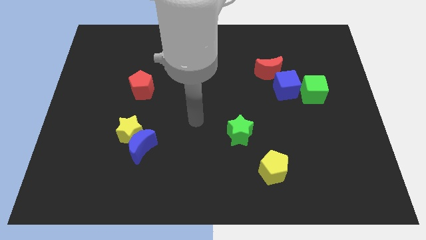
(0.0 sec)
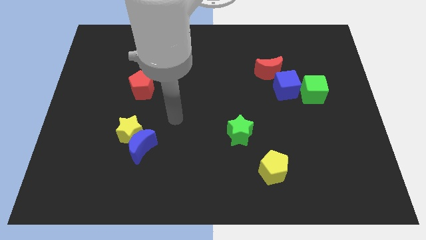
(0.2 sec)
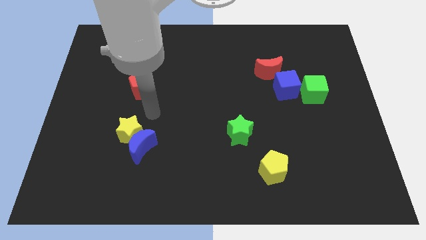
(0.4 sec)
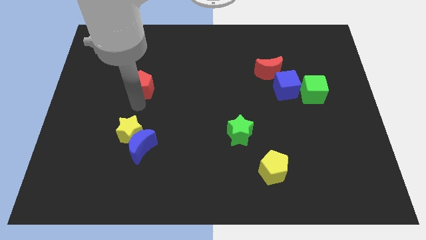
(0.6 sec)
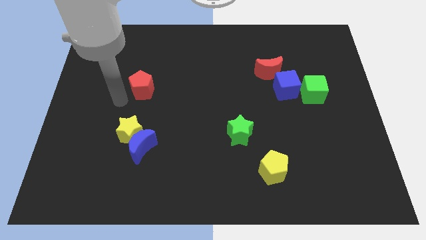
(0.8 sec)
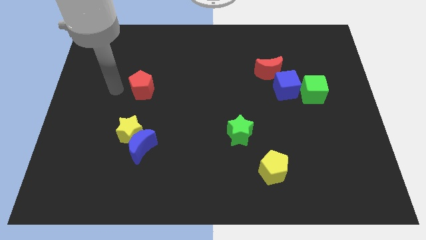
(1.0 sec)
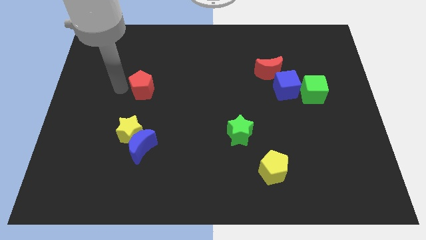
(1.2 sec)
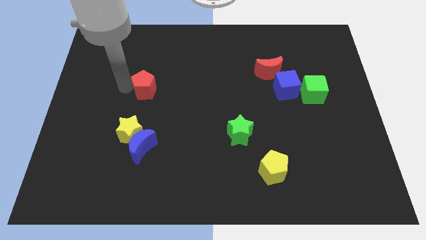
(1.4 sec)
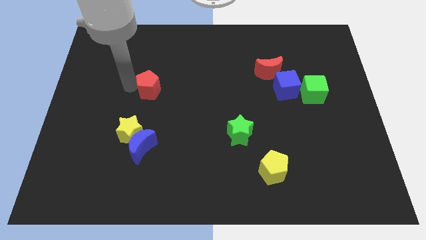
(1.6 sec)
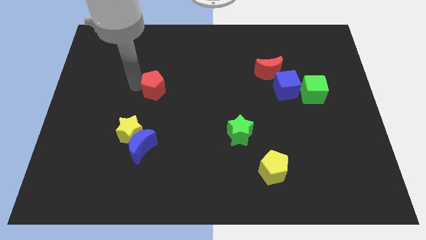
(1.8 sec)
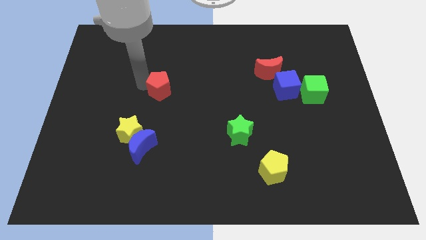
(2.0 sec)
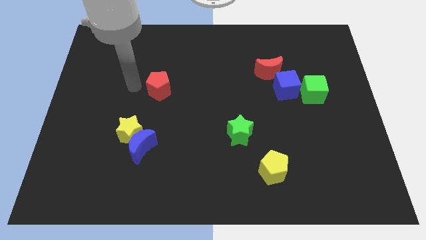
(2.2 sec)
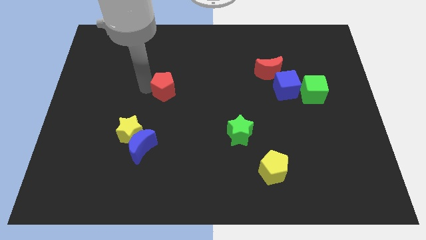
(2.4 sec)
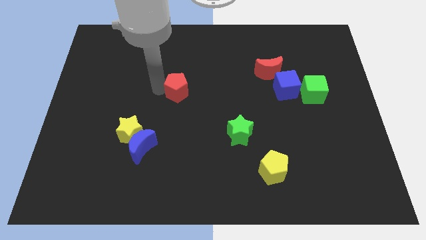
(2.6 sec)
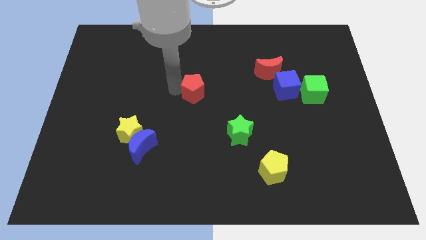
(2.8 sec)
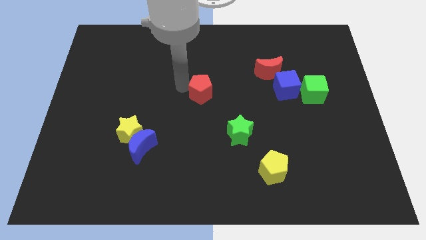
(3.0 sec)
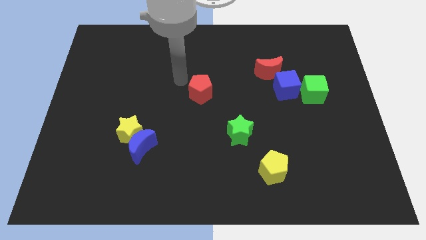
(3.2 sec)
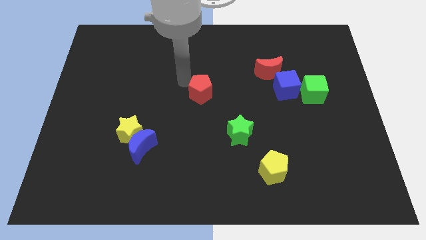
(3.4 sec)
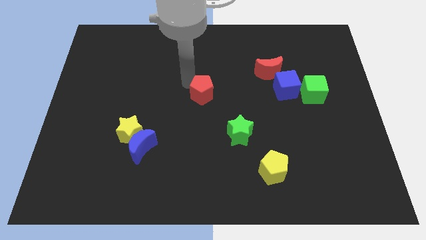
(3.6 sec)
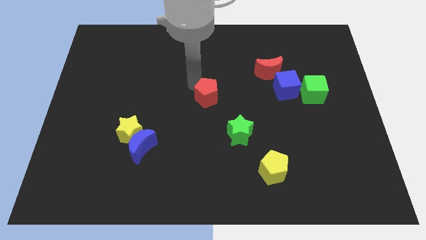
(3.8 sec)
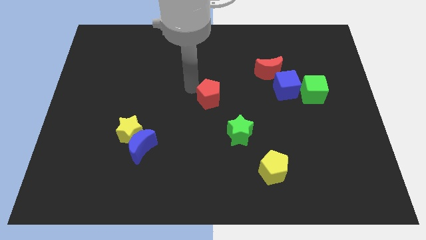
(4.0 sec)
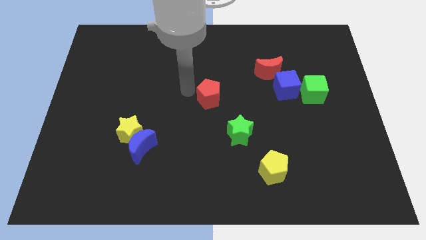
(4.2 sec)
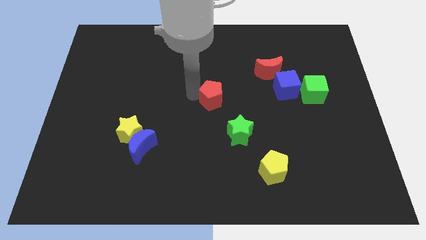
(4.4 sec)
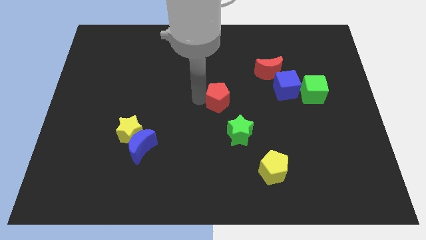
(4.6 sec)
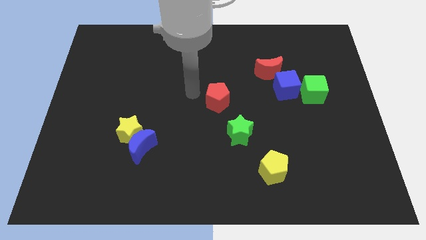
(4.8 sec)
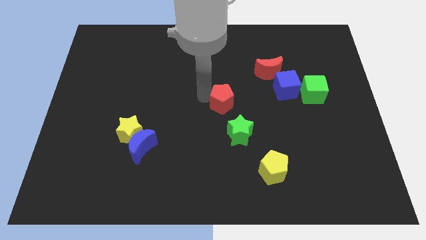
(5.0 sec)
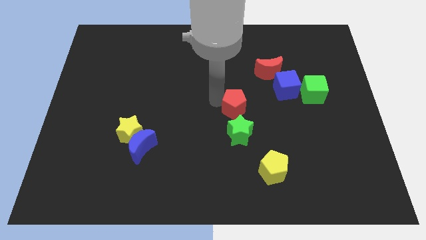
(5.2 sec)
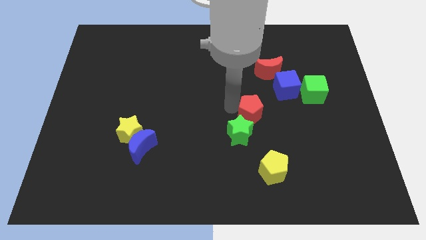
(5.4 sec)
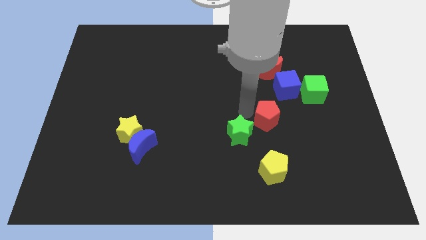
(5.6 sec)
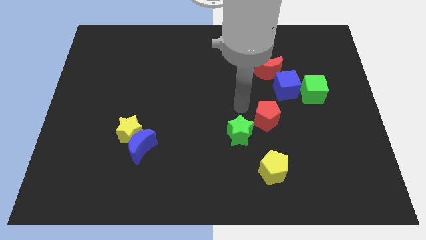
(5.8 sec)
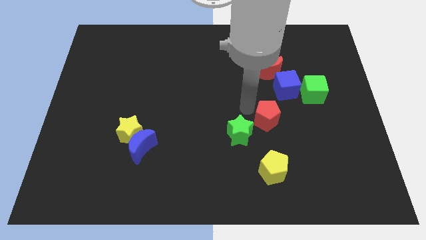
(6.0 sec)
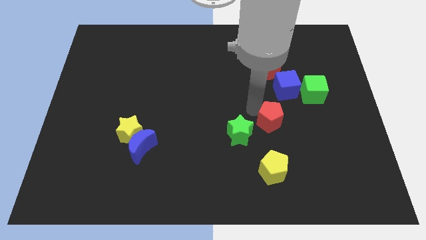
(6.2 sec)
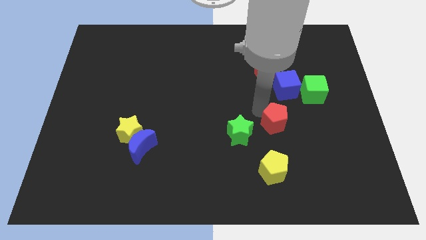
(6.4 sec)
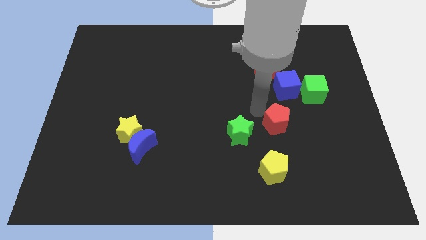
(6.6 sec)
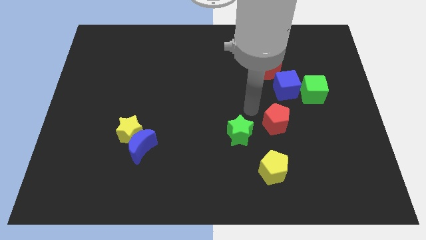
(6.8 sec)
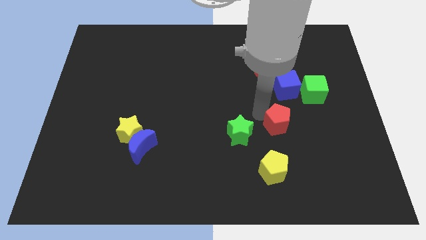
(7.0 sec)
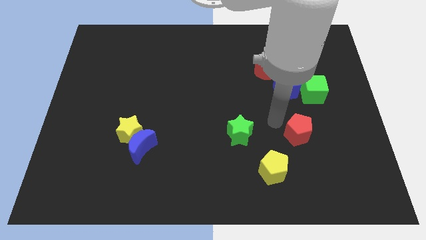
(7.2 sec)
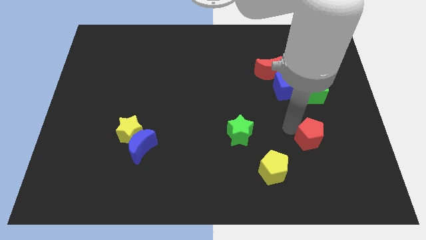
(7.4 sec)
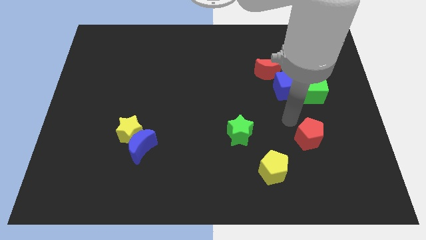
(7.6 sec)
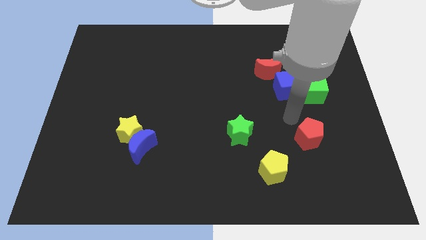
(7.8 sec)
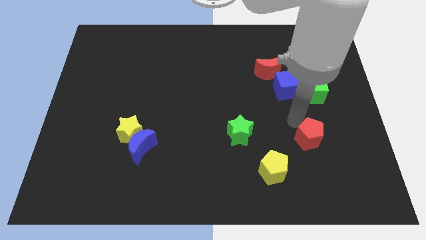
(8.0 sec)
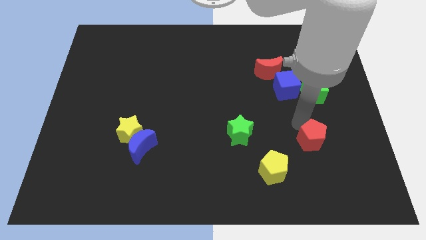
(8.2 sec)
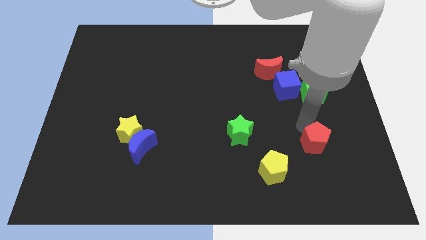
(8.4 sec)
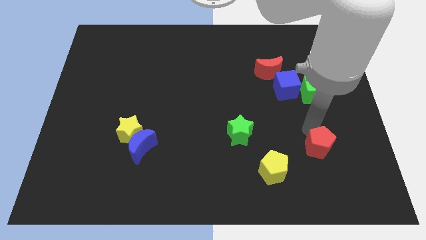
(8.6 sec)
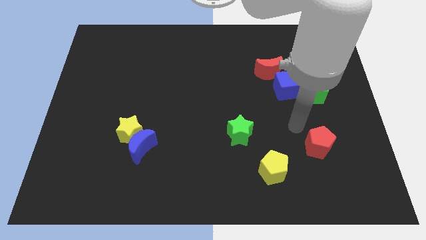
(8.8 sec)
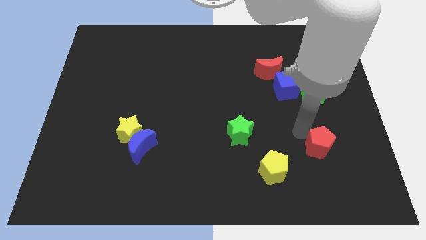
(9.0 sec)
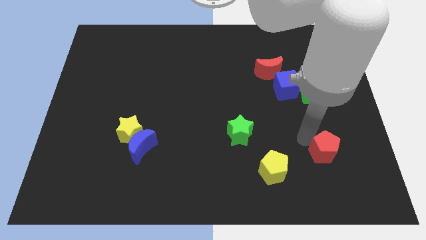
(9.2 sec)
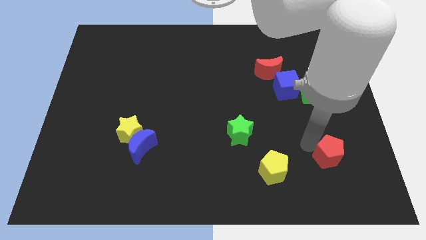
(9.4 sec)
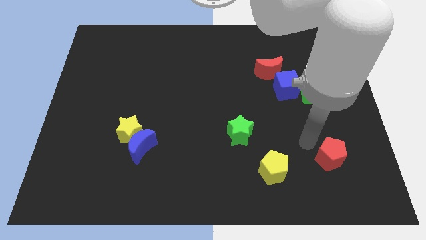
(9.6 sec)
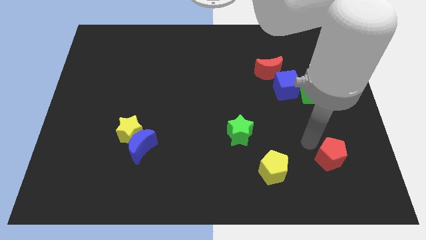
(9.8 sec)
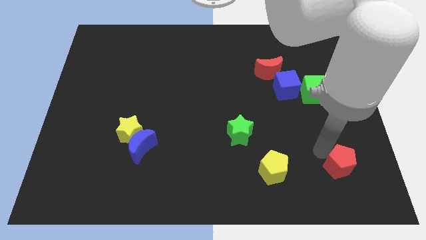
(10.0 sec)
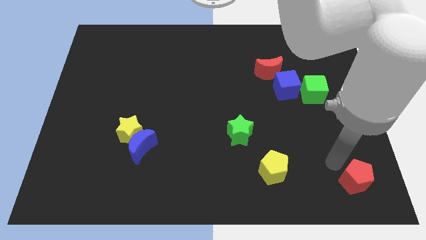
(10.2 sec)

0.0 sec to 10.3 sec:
put the red pentagon to the bottom right corner

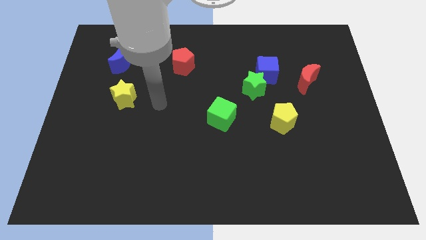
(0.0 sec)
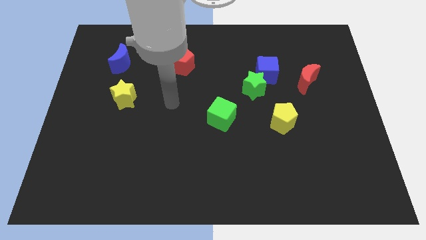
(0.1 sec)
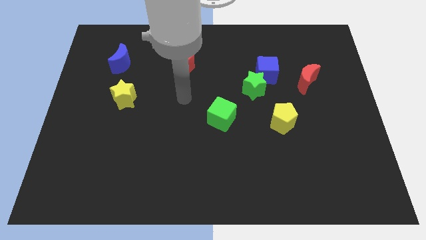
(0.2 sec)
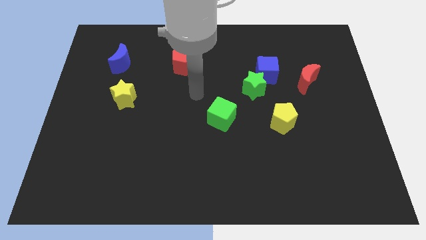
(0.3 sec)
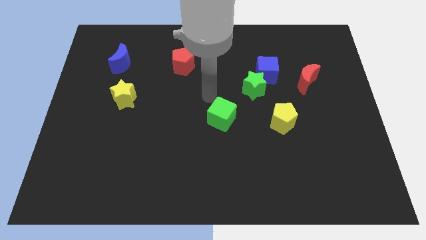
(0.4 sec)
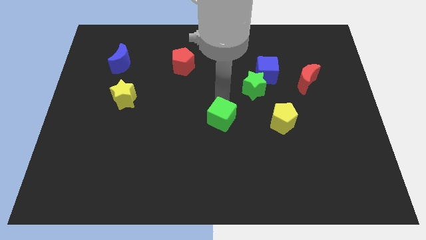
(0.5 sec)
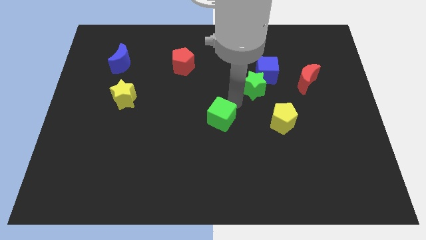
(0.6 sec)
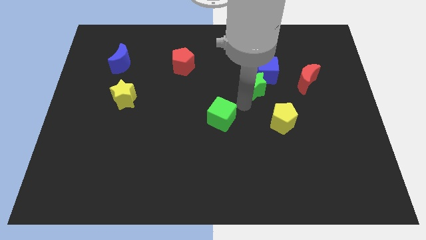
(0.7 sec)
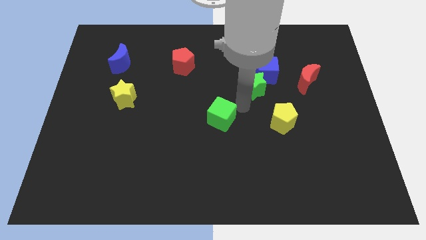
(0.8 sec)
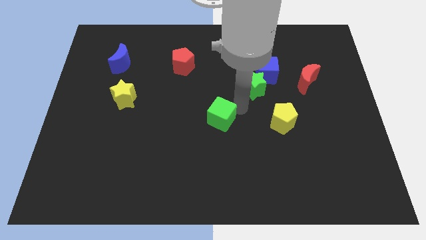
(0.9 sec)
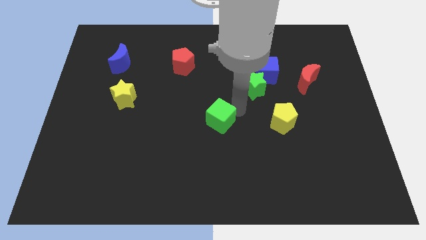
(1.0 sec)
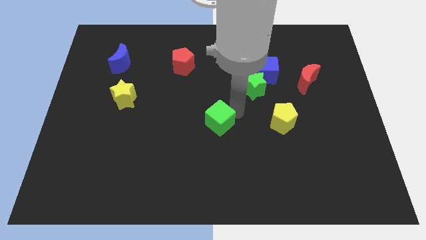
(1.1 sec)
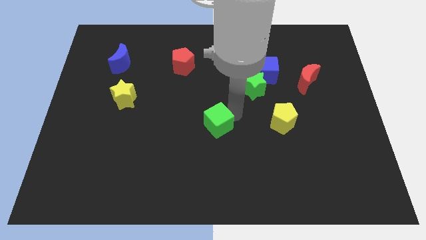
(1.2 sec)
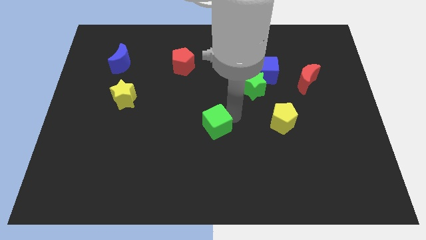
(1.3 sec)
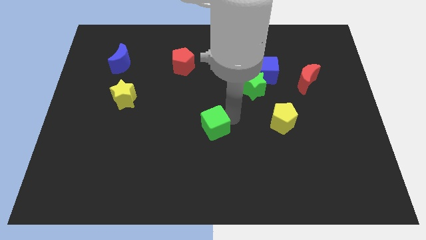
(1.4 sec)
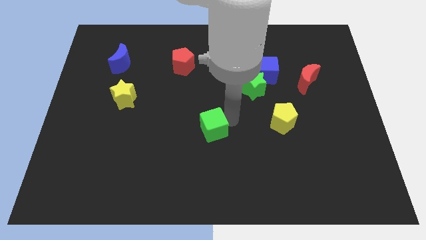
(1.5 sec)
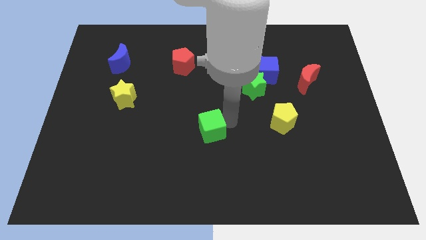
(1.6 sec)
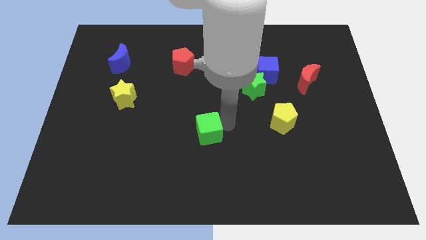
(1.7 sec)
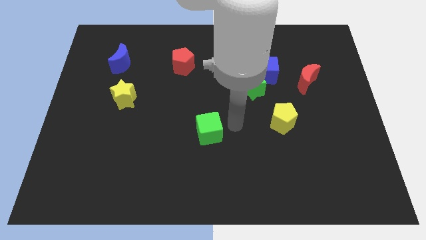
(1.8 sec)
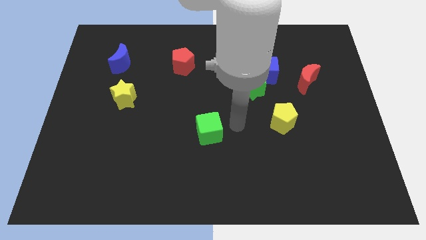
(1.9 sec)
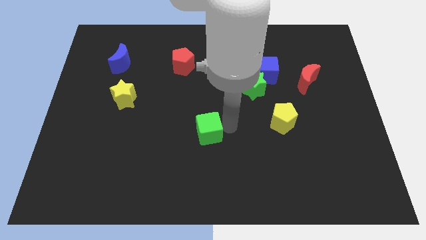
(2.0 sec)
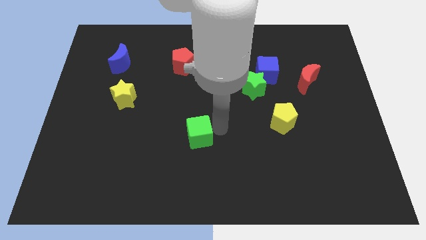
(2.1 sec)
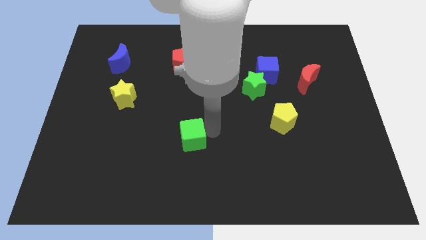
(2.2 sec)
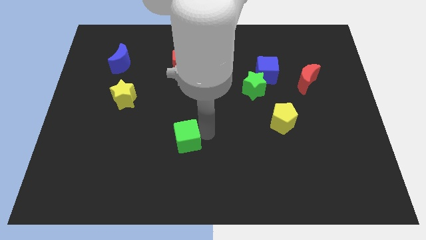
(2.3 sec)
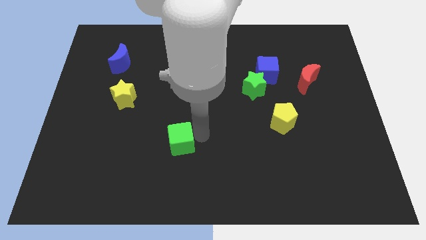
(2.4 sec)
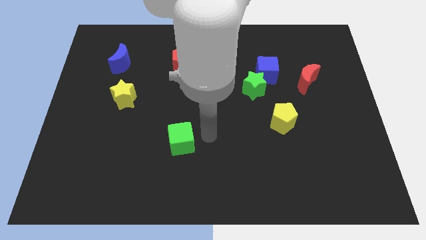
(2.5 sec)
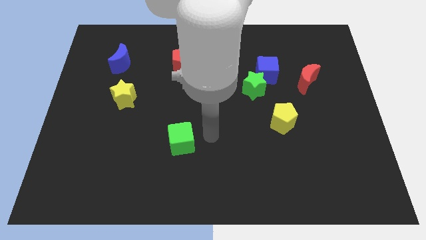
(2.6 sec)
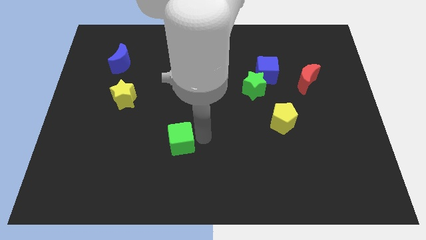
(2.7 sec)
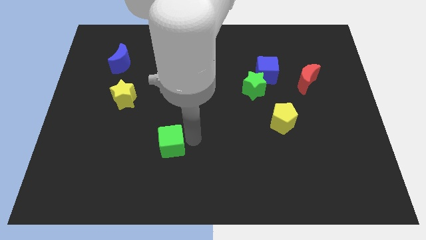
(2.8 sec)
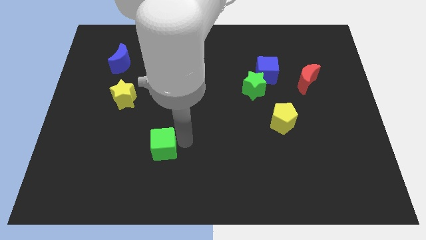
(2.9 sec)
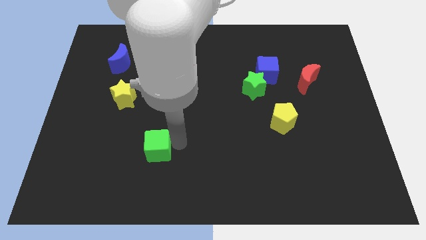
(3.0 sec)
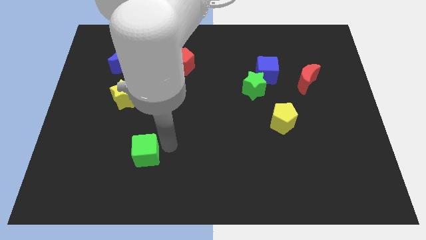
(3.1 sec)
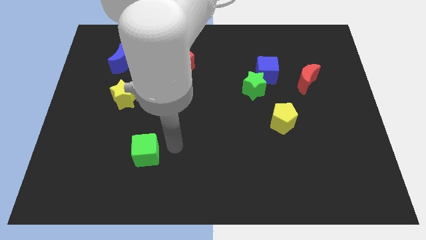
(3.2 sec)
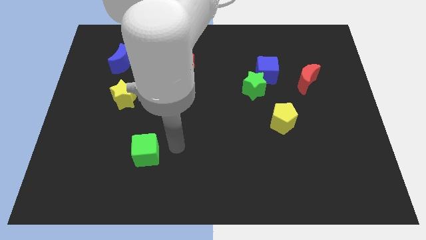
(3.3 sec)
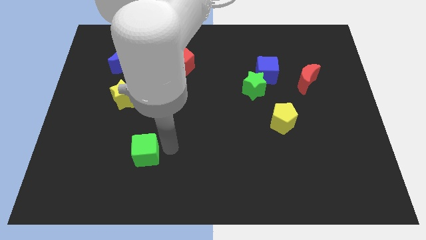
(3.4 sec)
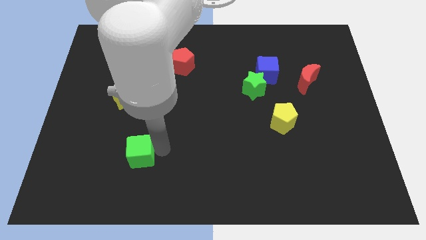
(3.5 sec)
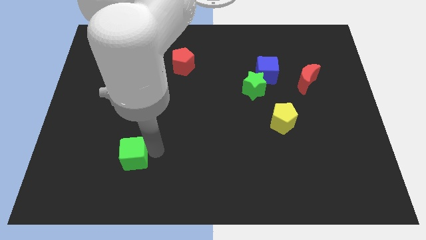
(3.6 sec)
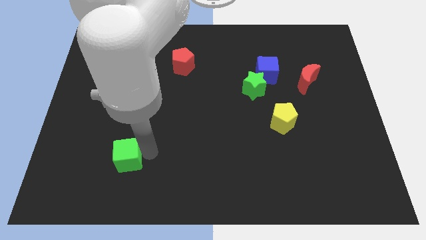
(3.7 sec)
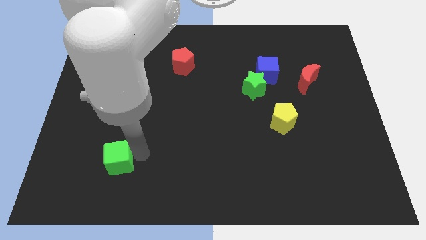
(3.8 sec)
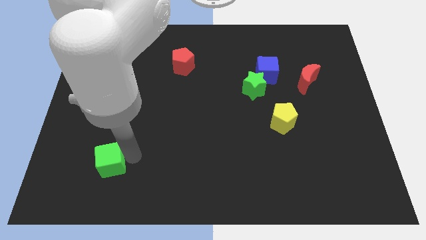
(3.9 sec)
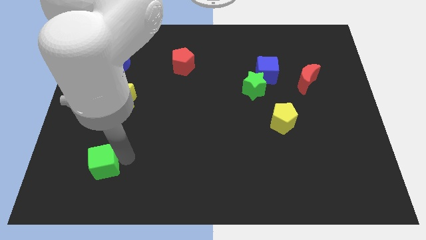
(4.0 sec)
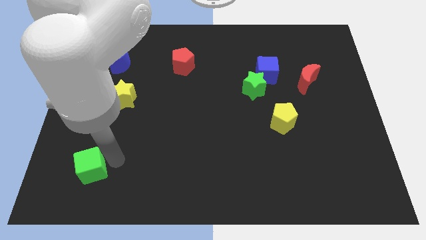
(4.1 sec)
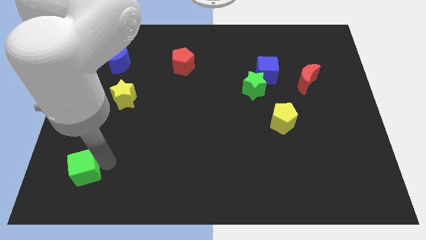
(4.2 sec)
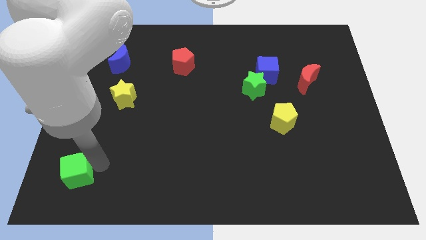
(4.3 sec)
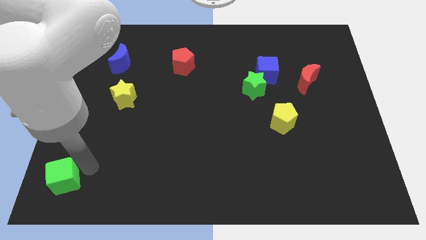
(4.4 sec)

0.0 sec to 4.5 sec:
put the green cube to the lower left corner
